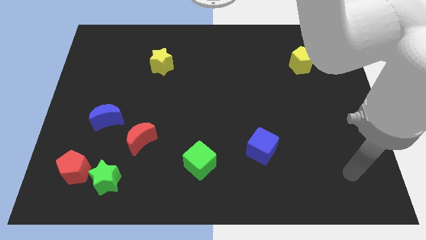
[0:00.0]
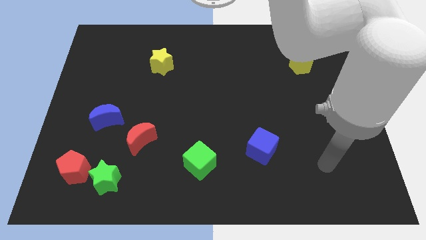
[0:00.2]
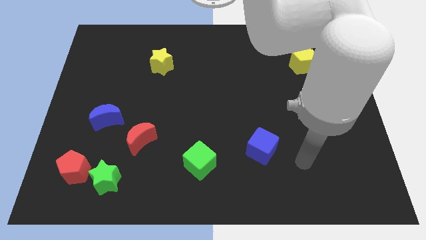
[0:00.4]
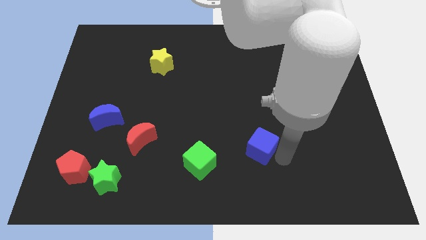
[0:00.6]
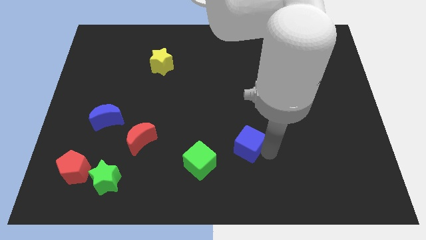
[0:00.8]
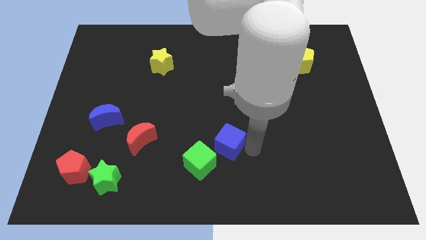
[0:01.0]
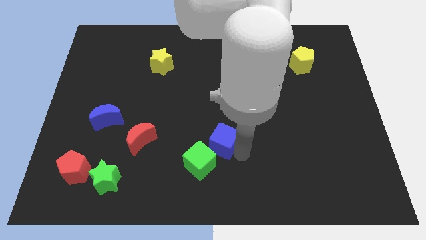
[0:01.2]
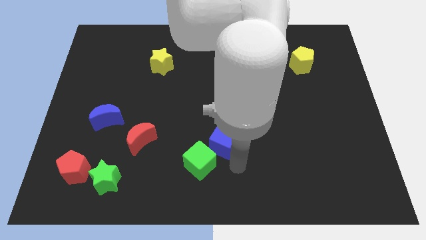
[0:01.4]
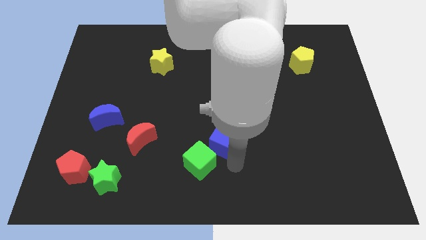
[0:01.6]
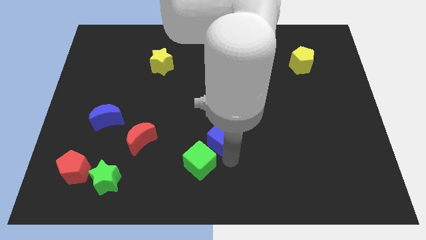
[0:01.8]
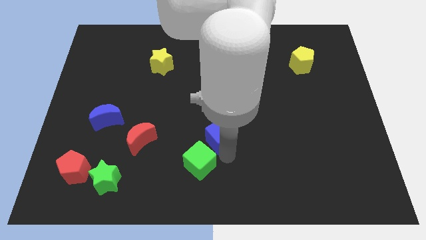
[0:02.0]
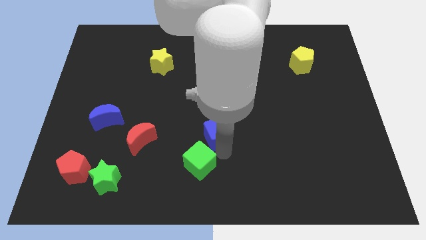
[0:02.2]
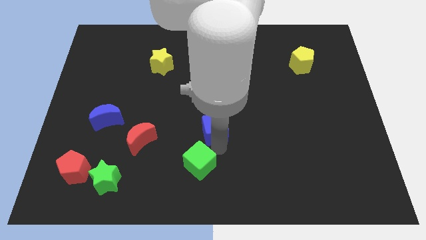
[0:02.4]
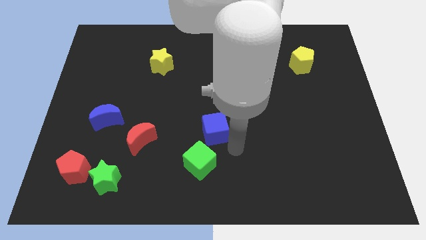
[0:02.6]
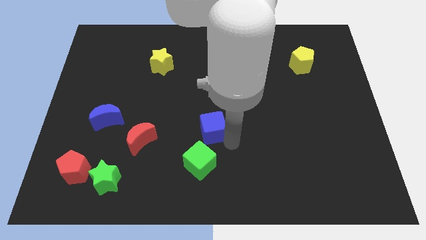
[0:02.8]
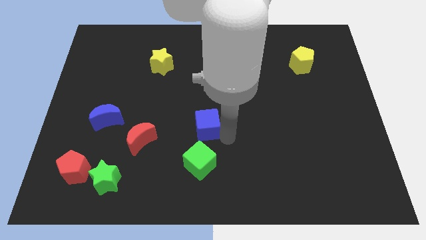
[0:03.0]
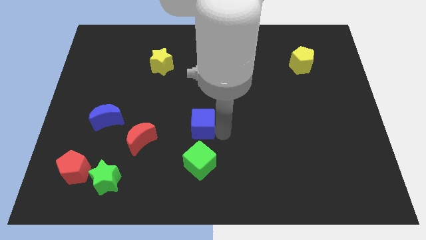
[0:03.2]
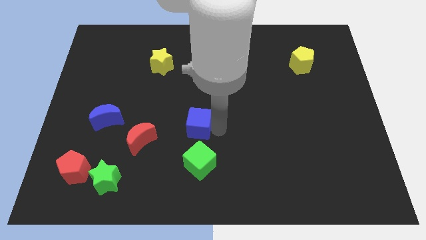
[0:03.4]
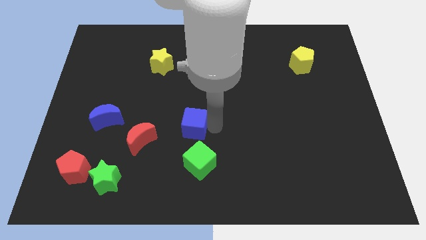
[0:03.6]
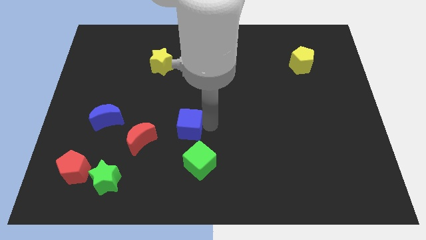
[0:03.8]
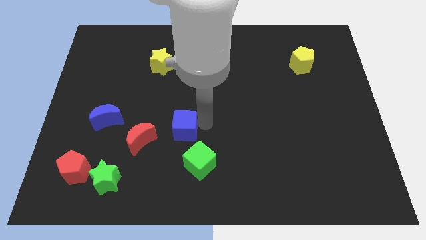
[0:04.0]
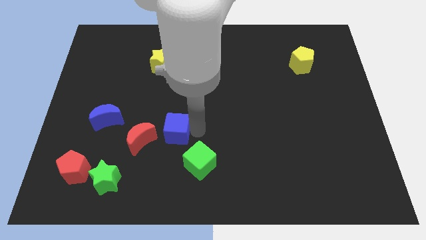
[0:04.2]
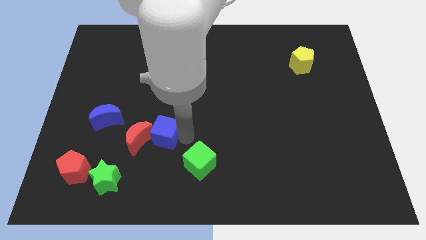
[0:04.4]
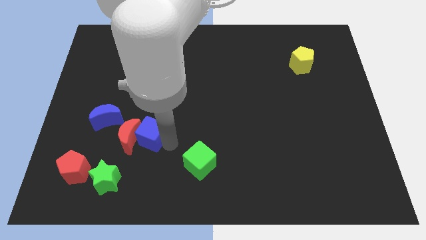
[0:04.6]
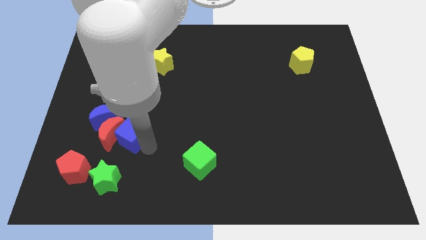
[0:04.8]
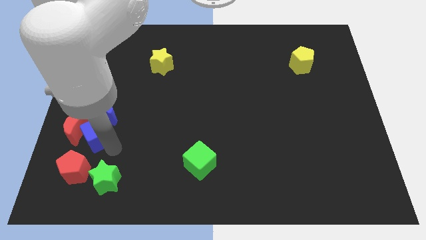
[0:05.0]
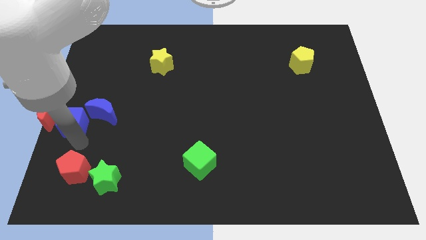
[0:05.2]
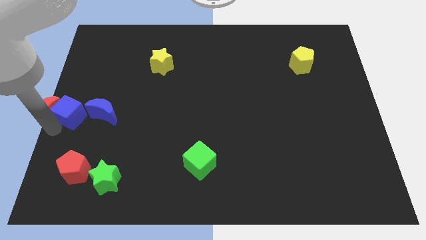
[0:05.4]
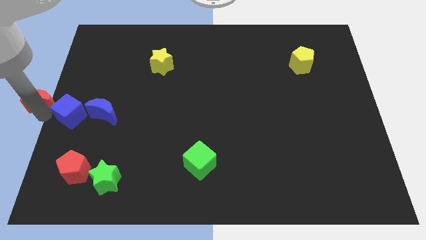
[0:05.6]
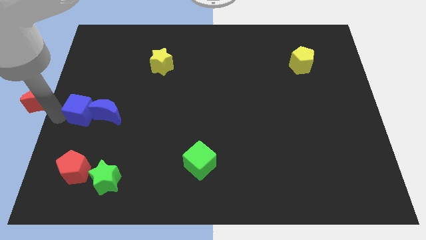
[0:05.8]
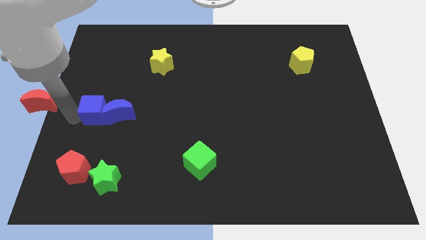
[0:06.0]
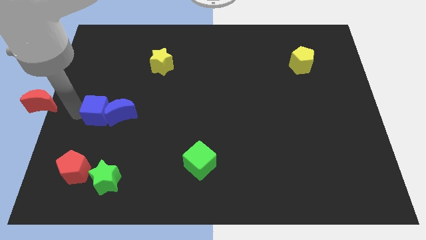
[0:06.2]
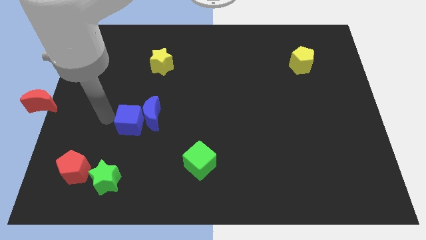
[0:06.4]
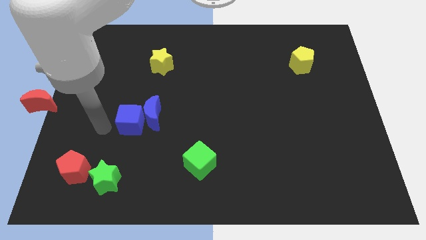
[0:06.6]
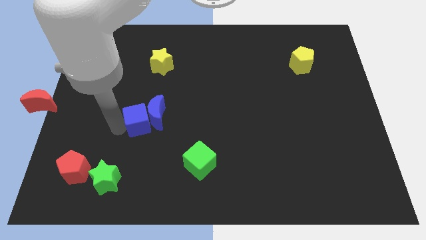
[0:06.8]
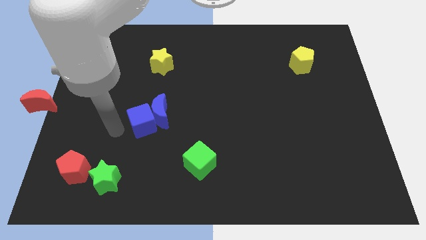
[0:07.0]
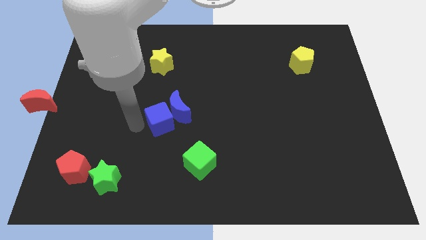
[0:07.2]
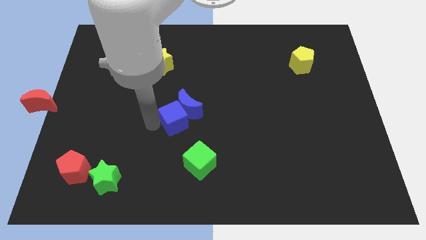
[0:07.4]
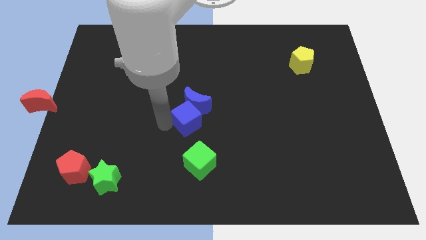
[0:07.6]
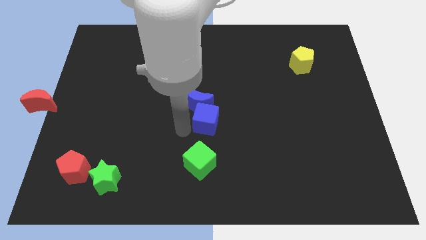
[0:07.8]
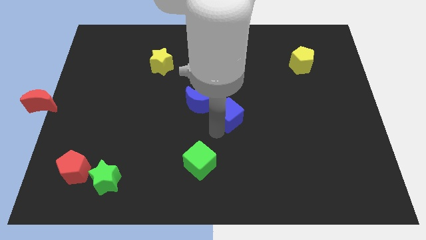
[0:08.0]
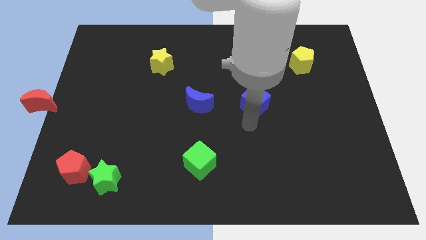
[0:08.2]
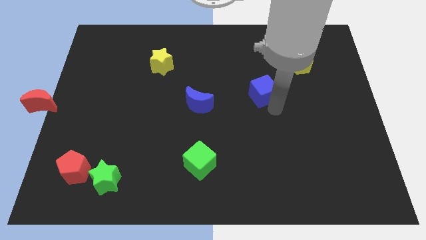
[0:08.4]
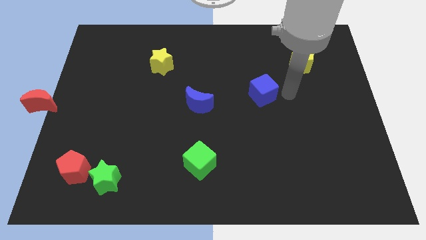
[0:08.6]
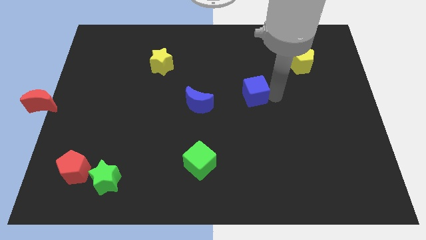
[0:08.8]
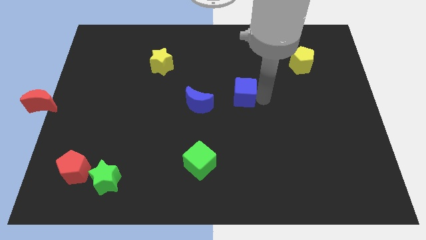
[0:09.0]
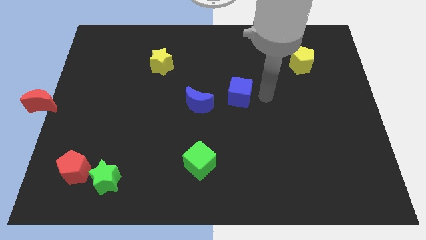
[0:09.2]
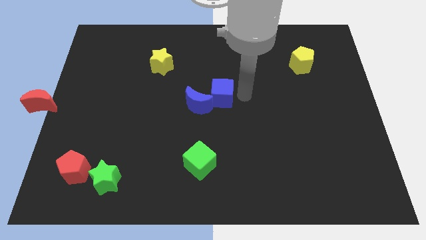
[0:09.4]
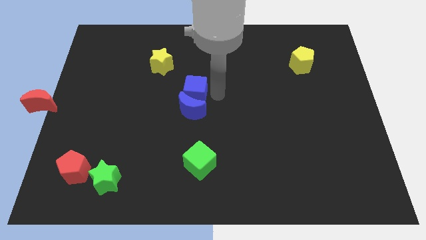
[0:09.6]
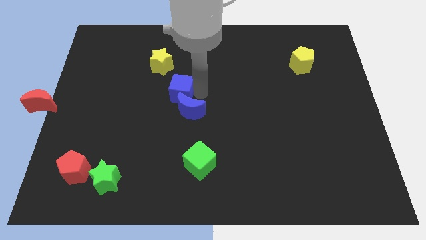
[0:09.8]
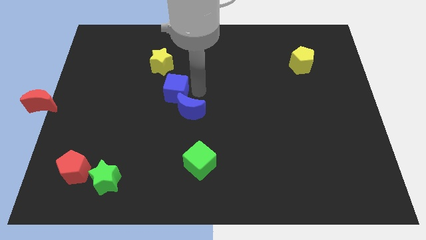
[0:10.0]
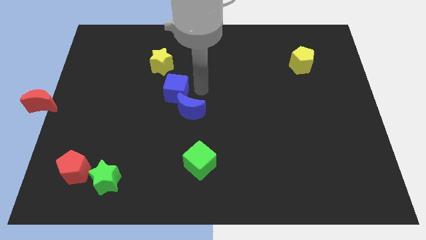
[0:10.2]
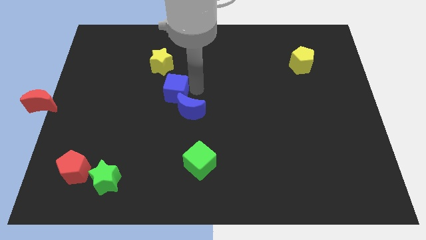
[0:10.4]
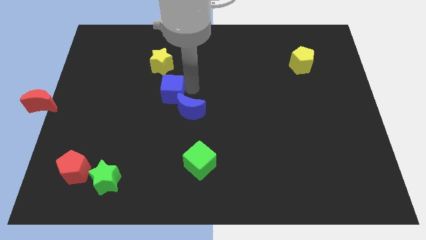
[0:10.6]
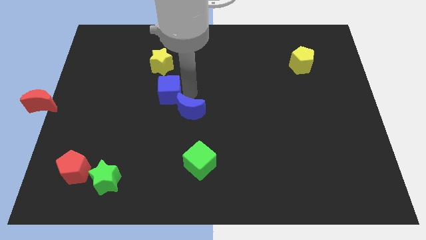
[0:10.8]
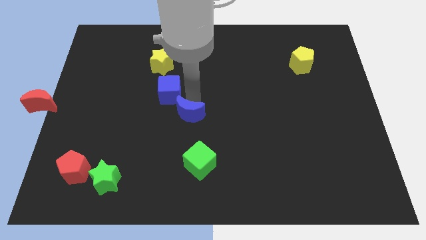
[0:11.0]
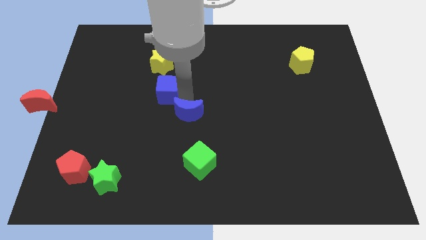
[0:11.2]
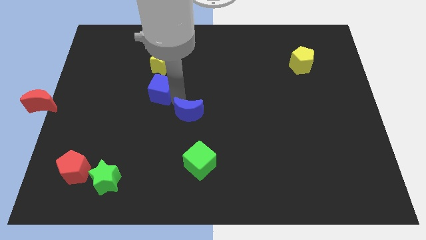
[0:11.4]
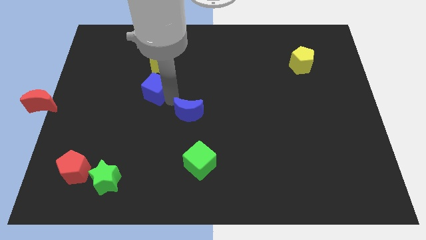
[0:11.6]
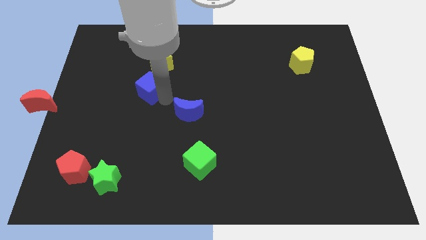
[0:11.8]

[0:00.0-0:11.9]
move the blue cube diagonally down and to the left of the yellow star

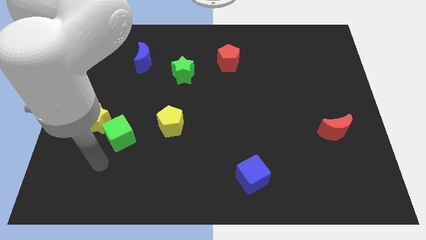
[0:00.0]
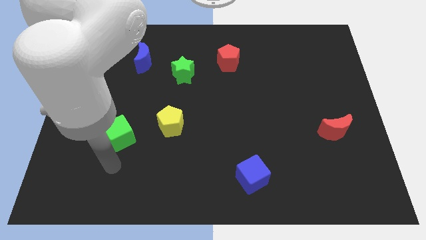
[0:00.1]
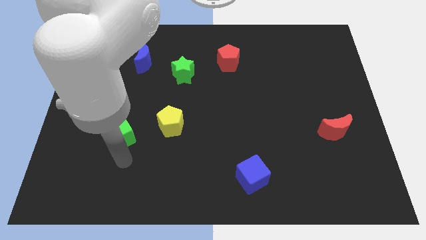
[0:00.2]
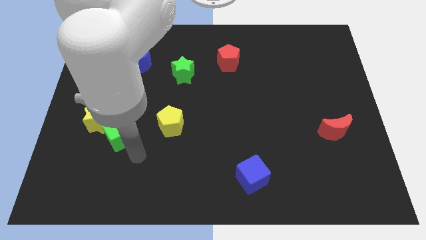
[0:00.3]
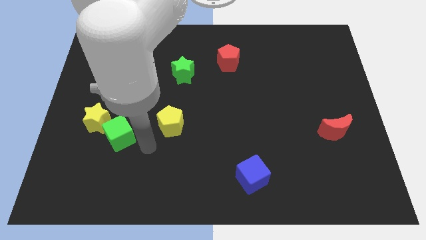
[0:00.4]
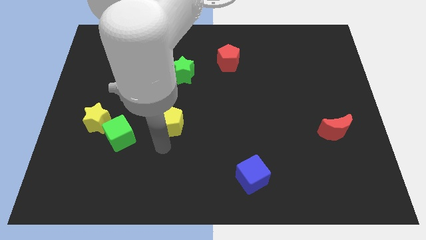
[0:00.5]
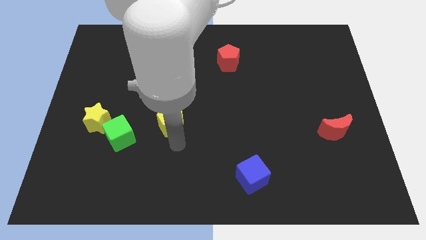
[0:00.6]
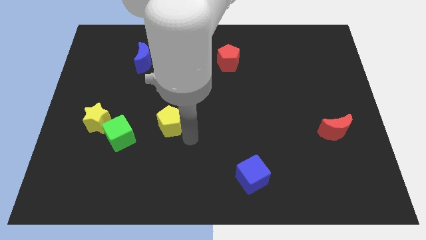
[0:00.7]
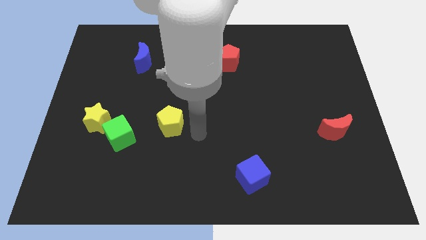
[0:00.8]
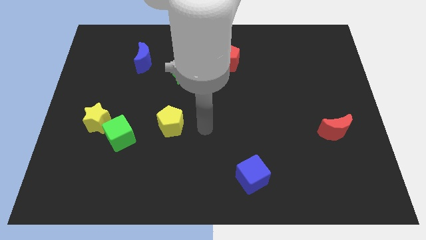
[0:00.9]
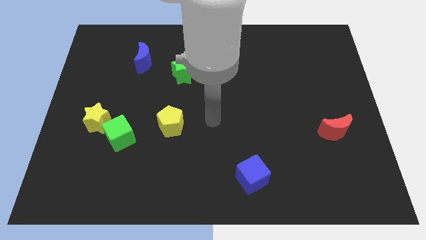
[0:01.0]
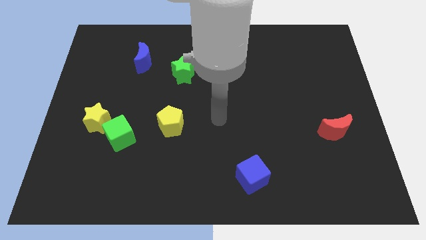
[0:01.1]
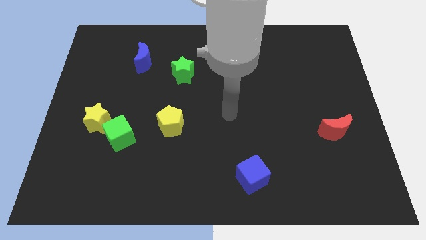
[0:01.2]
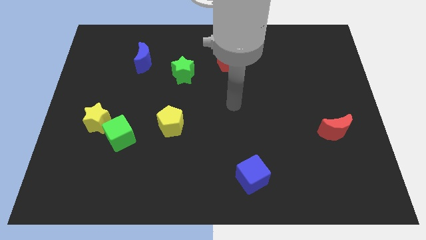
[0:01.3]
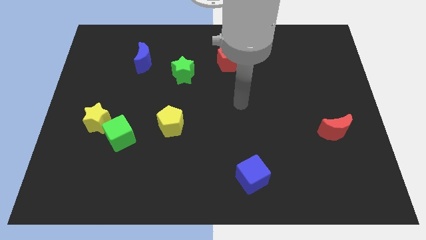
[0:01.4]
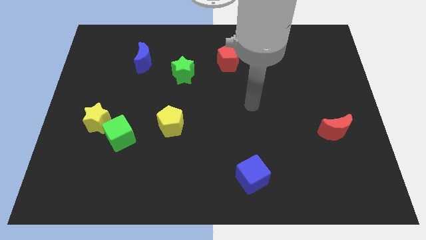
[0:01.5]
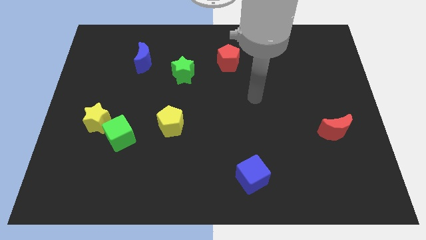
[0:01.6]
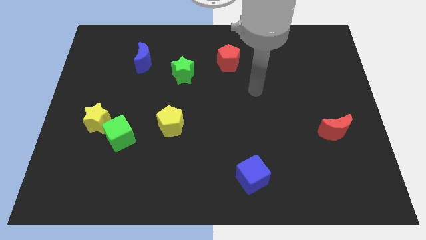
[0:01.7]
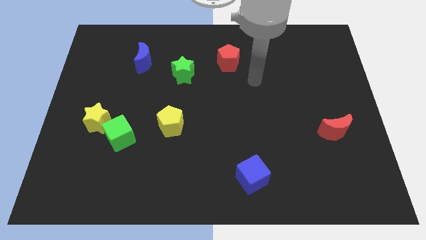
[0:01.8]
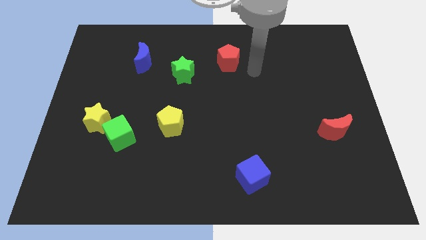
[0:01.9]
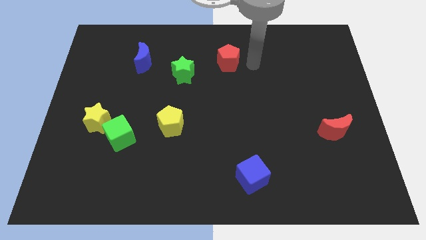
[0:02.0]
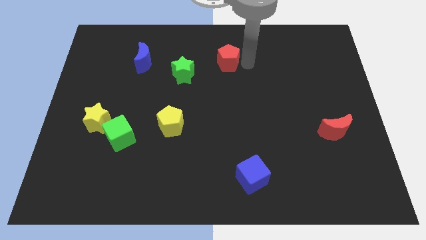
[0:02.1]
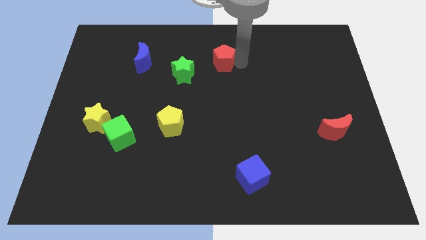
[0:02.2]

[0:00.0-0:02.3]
slide the red pentagon to the top right side of the green star
